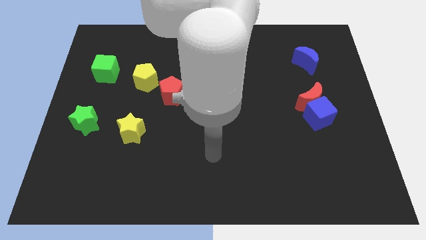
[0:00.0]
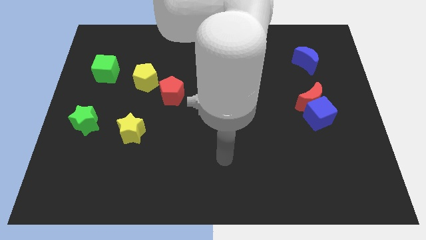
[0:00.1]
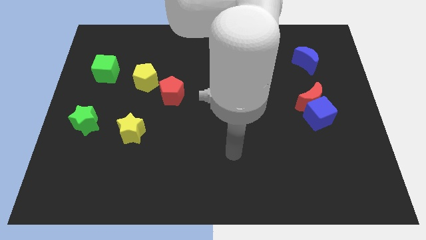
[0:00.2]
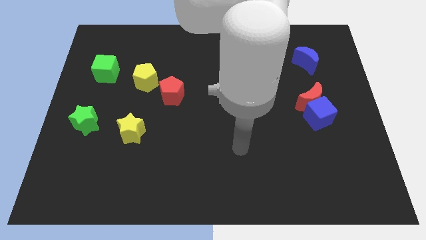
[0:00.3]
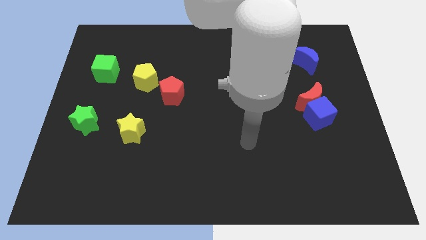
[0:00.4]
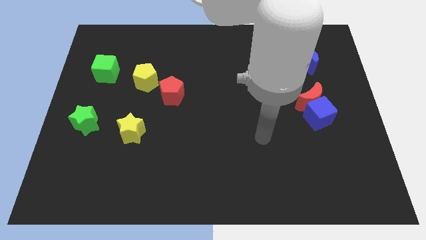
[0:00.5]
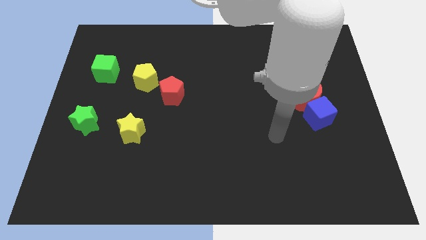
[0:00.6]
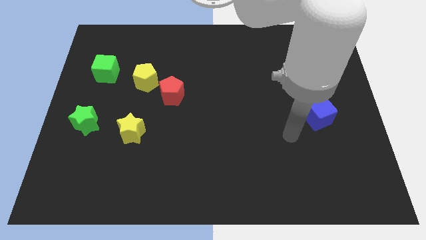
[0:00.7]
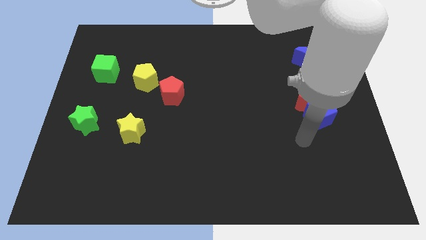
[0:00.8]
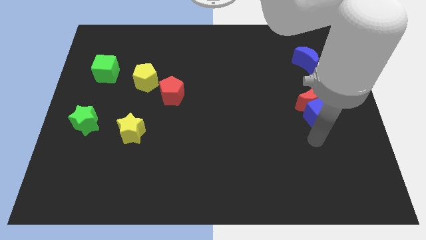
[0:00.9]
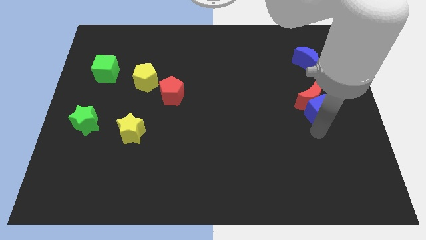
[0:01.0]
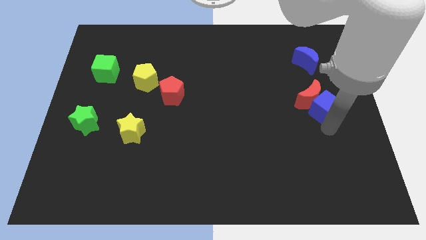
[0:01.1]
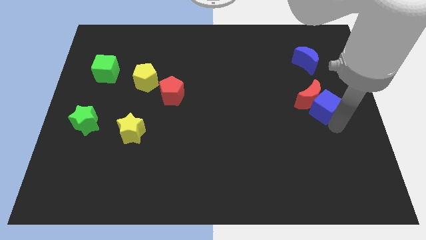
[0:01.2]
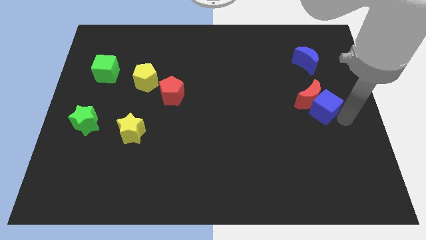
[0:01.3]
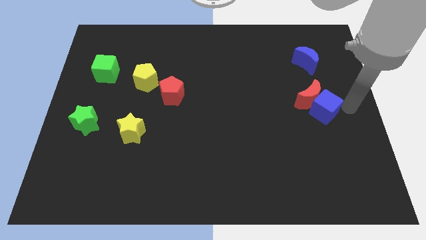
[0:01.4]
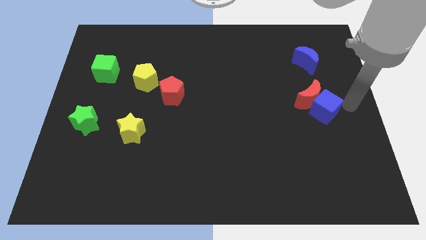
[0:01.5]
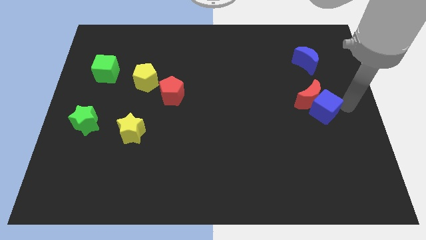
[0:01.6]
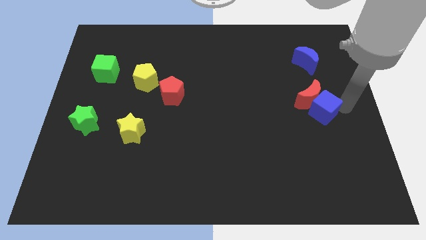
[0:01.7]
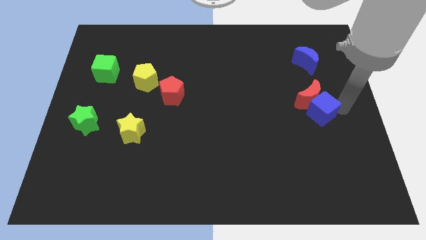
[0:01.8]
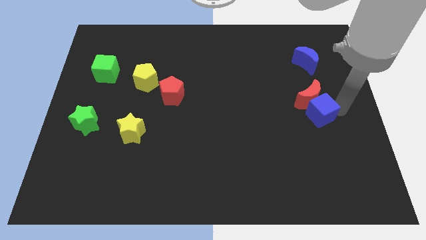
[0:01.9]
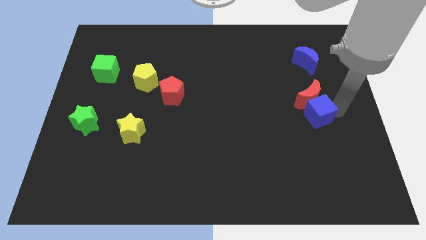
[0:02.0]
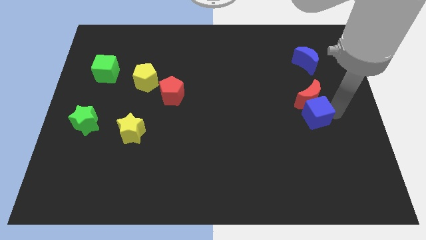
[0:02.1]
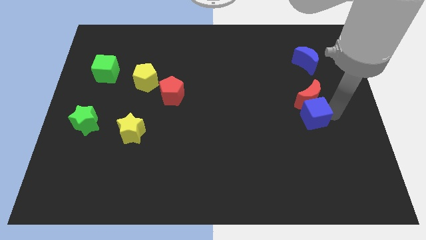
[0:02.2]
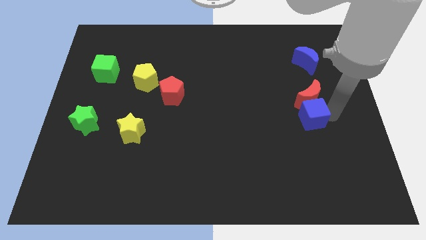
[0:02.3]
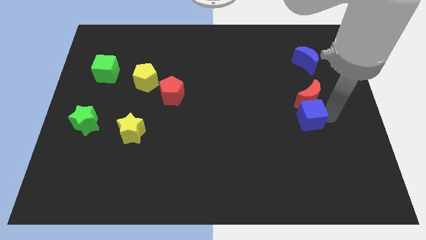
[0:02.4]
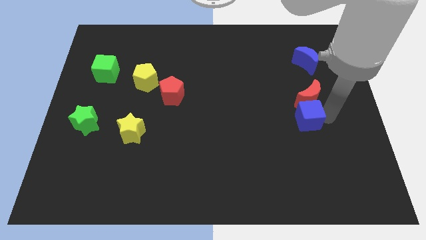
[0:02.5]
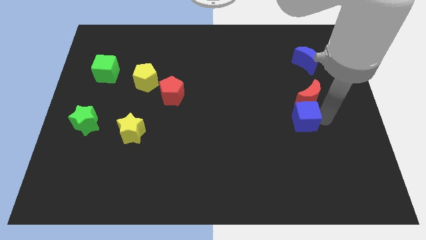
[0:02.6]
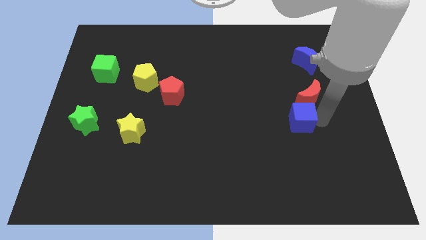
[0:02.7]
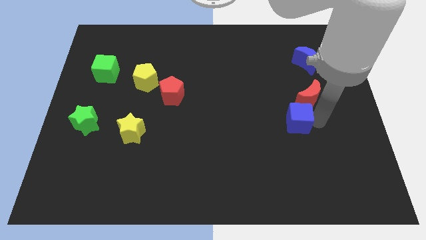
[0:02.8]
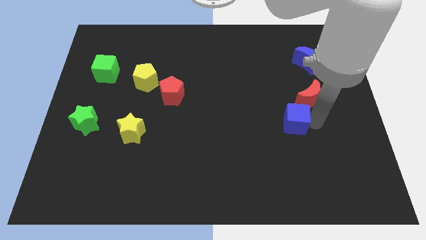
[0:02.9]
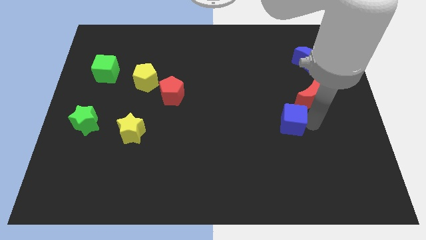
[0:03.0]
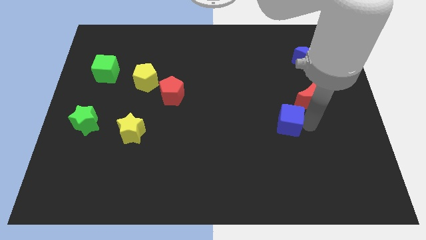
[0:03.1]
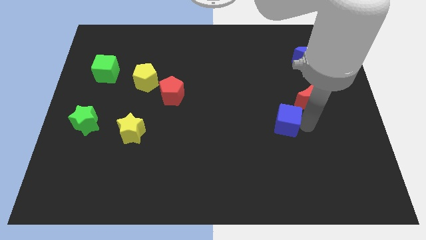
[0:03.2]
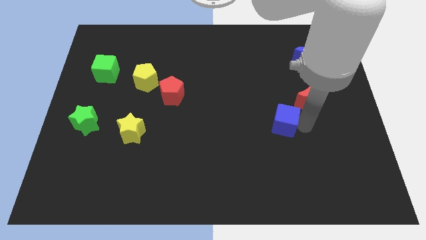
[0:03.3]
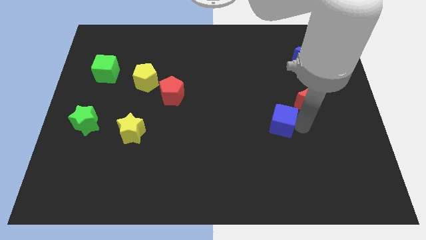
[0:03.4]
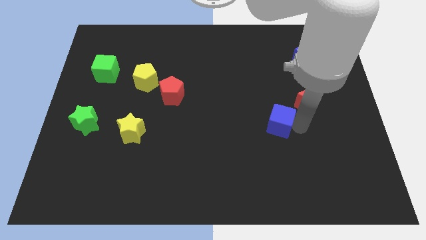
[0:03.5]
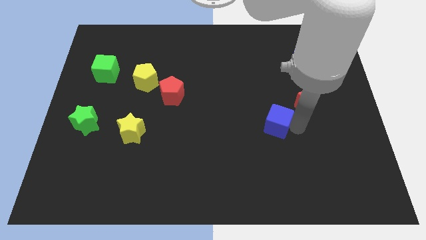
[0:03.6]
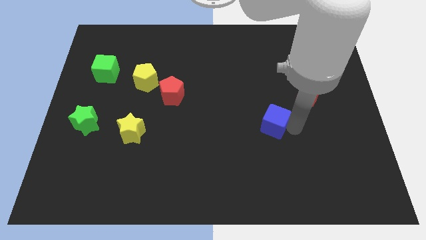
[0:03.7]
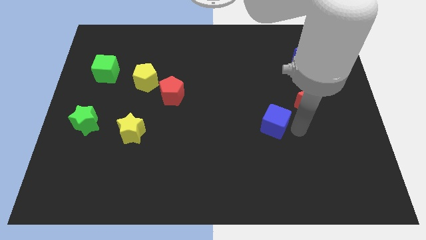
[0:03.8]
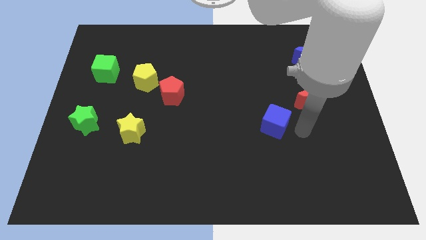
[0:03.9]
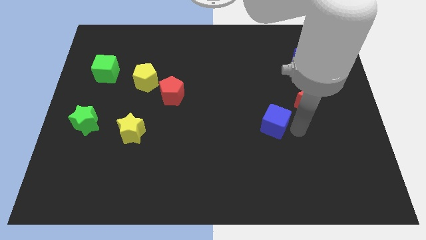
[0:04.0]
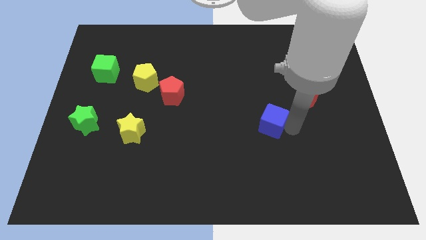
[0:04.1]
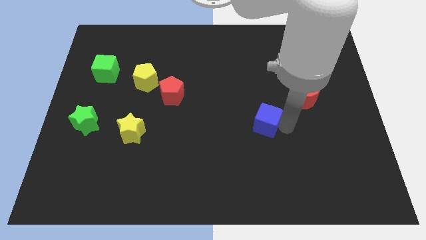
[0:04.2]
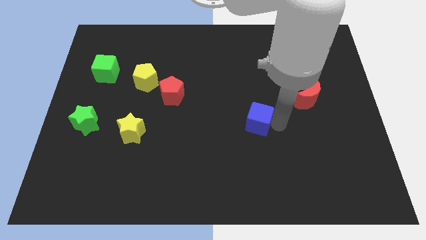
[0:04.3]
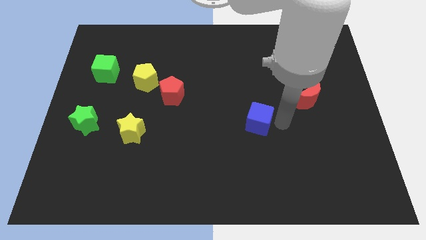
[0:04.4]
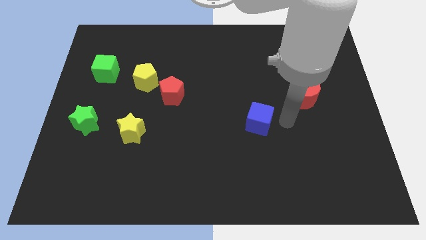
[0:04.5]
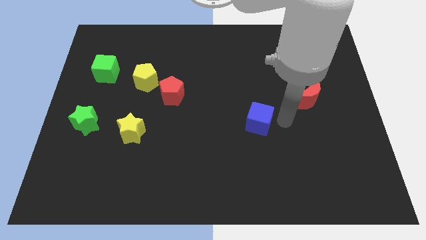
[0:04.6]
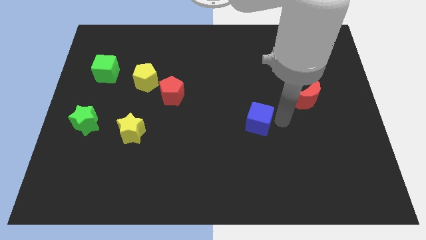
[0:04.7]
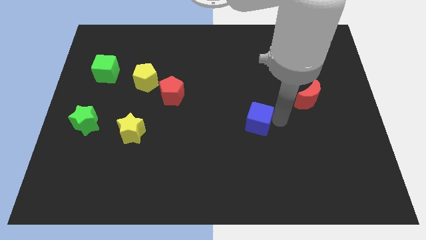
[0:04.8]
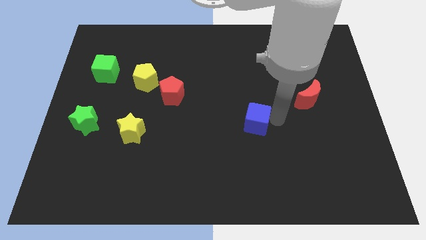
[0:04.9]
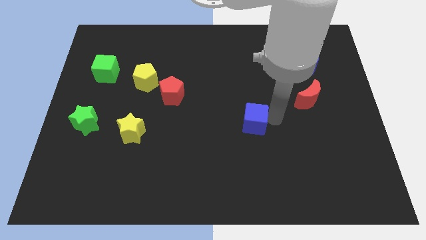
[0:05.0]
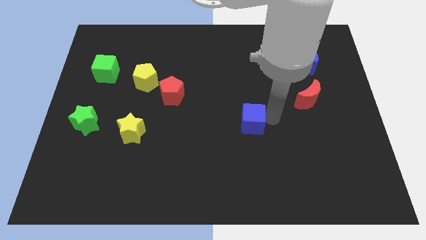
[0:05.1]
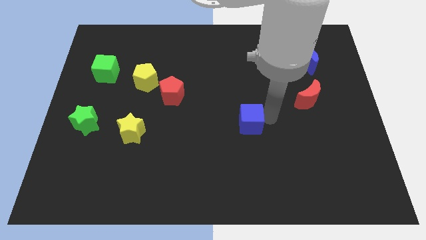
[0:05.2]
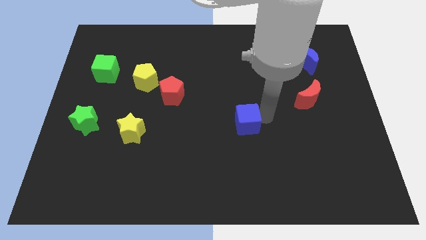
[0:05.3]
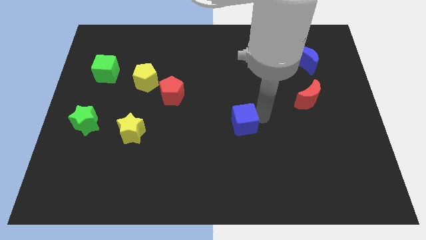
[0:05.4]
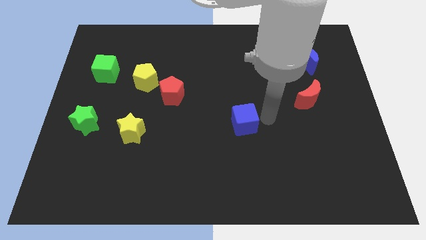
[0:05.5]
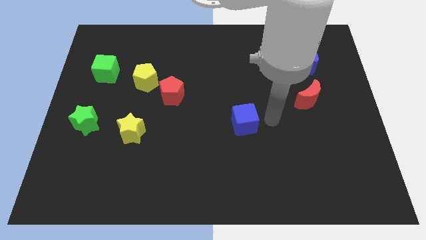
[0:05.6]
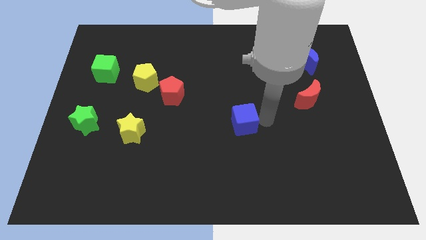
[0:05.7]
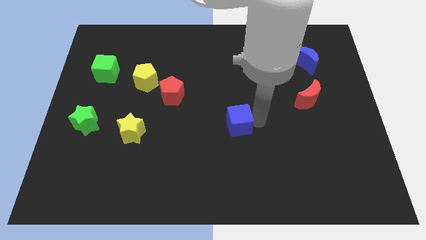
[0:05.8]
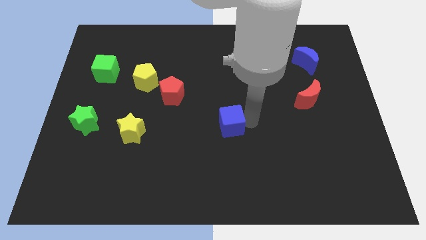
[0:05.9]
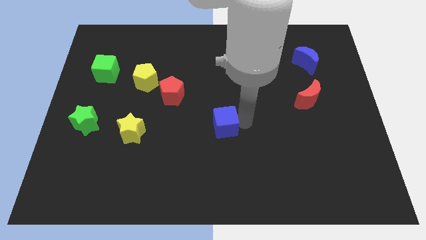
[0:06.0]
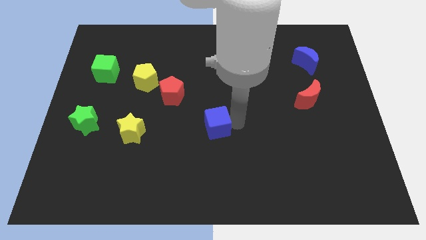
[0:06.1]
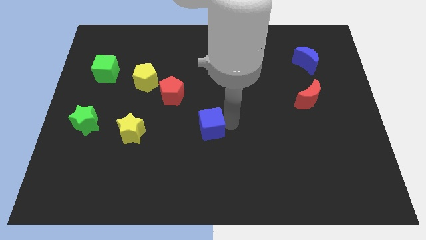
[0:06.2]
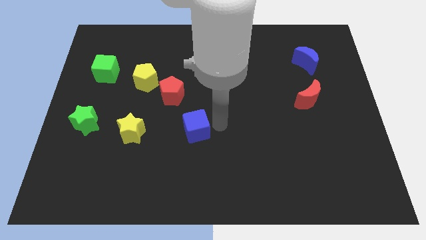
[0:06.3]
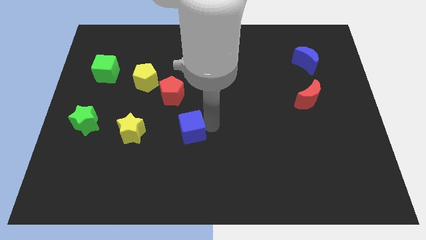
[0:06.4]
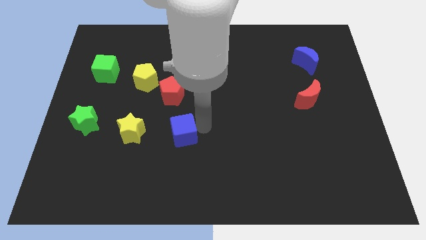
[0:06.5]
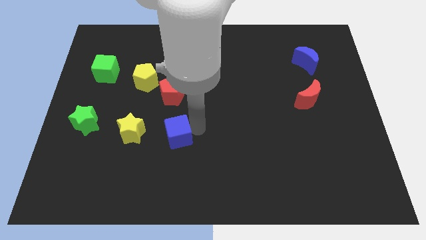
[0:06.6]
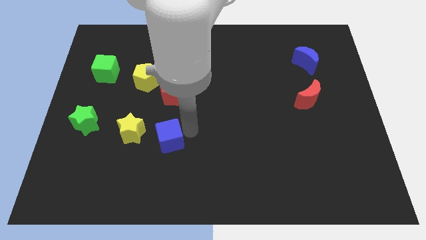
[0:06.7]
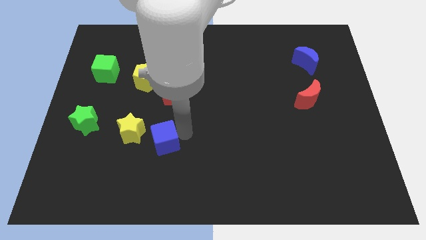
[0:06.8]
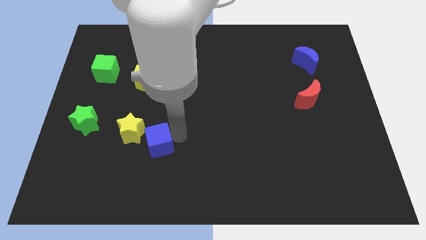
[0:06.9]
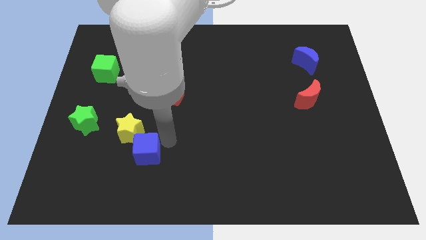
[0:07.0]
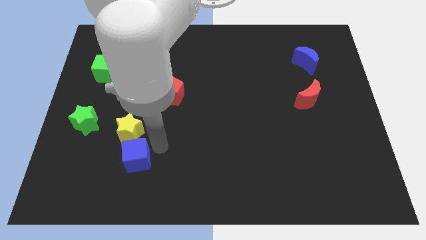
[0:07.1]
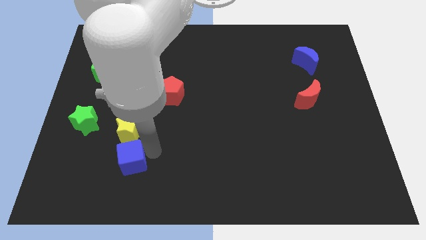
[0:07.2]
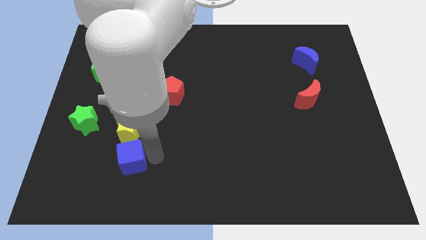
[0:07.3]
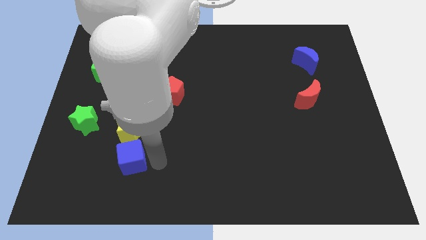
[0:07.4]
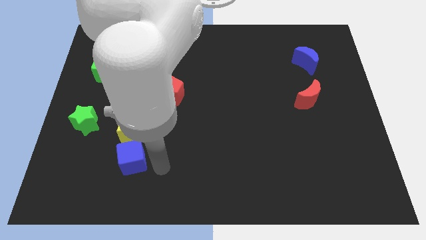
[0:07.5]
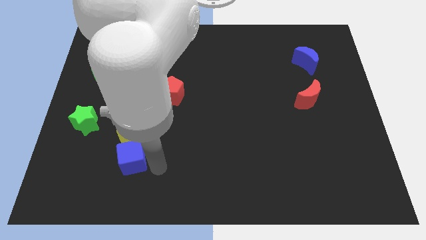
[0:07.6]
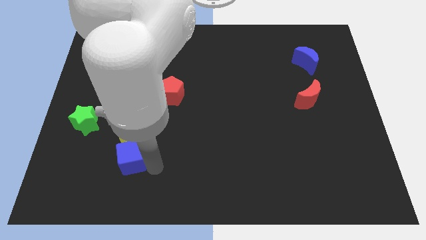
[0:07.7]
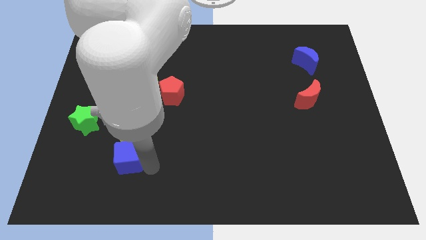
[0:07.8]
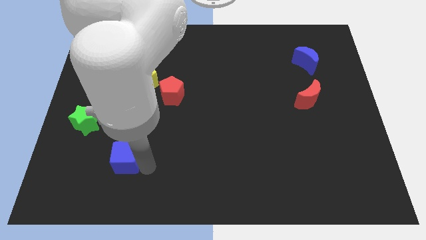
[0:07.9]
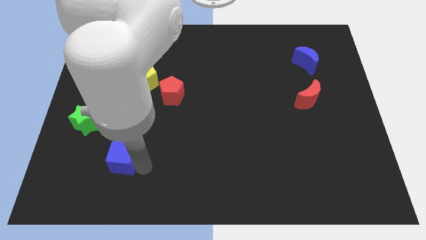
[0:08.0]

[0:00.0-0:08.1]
slide the blue cube to the bottom left of the yellow star
